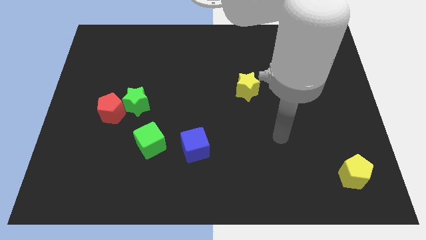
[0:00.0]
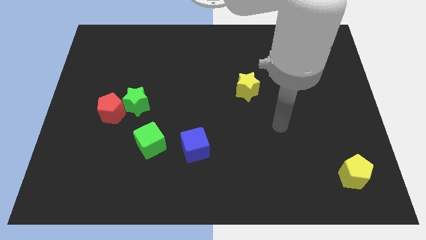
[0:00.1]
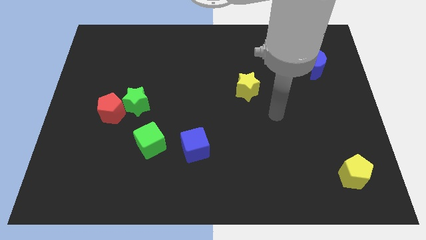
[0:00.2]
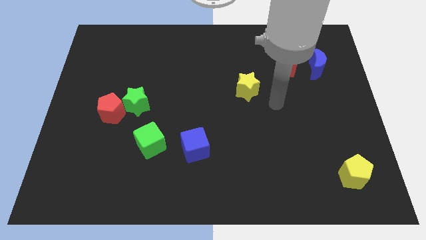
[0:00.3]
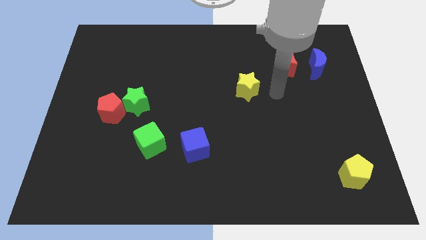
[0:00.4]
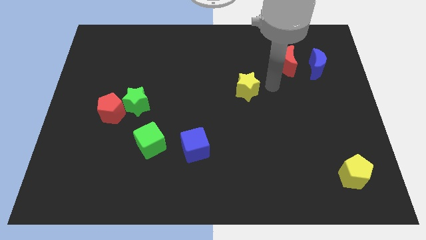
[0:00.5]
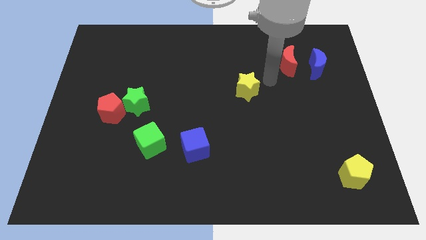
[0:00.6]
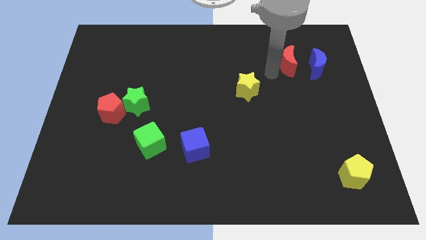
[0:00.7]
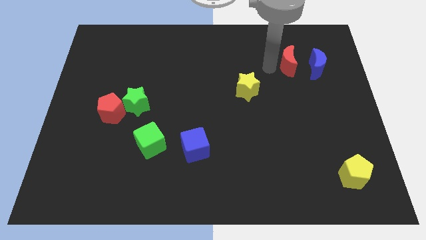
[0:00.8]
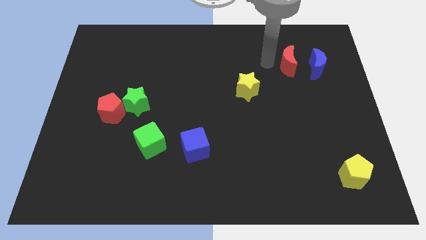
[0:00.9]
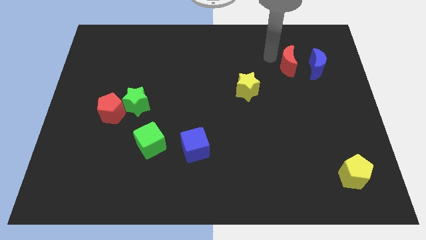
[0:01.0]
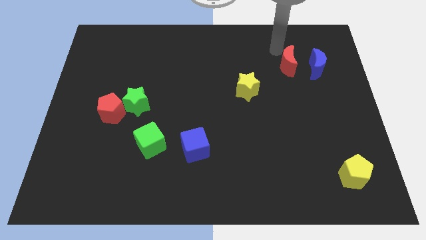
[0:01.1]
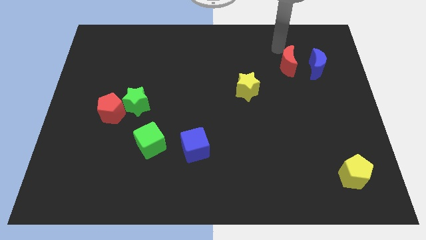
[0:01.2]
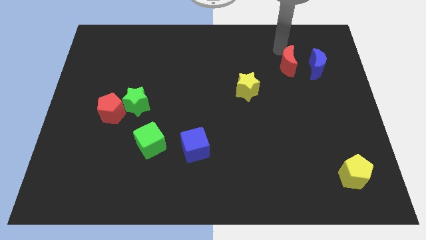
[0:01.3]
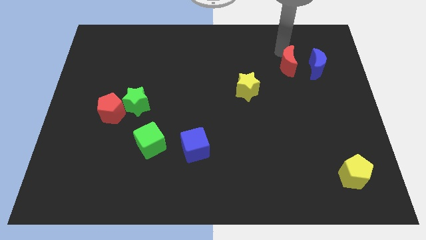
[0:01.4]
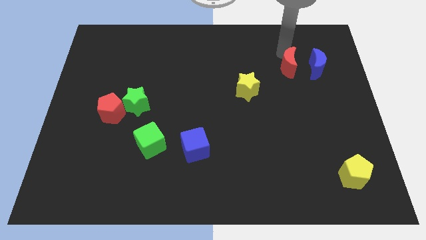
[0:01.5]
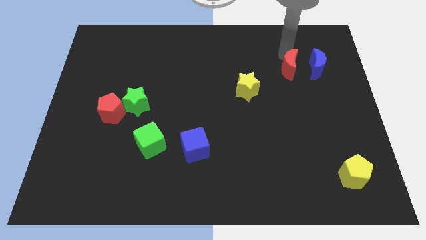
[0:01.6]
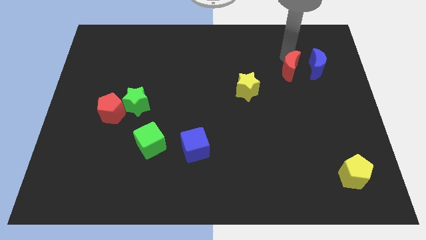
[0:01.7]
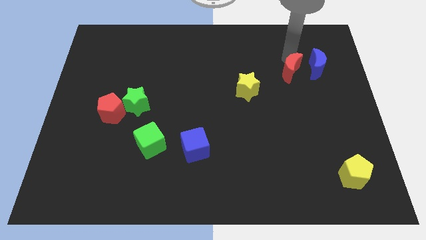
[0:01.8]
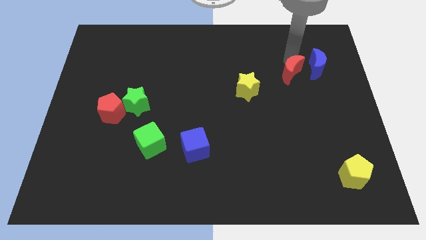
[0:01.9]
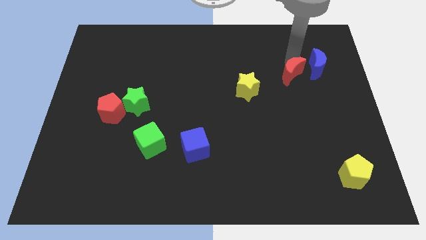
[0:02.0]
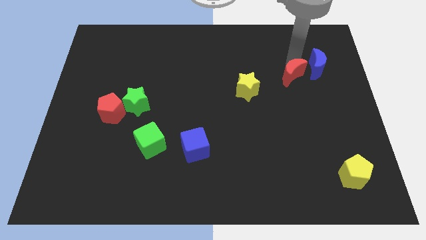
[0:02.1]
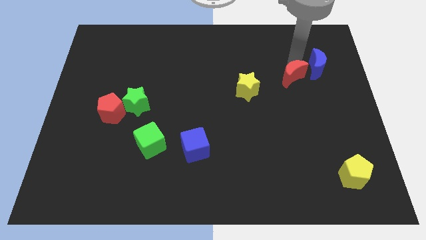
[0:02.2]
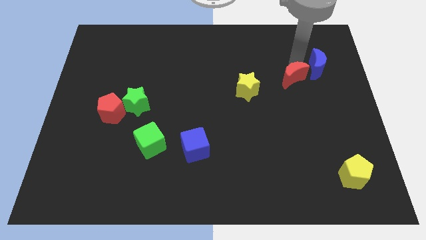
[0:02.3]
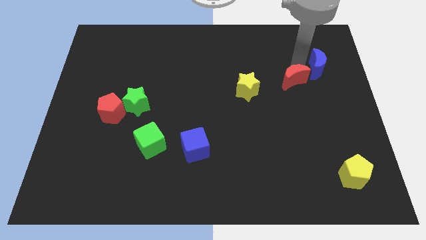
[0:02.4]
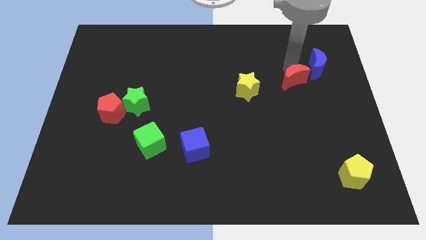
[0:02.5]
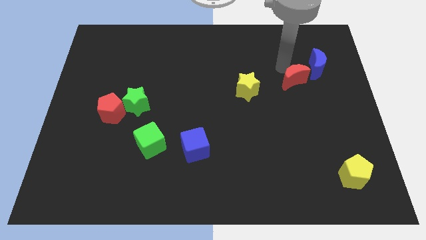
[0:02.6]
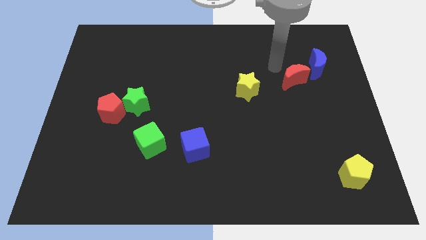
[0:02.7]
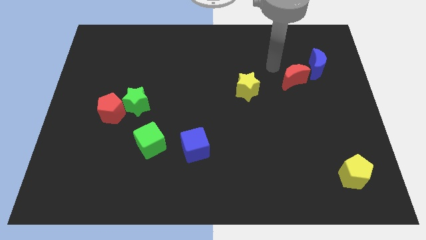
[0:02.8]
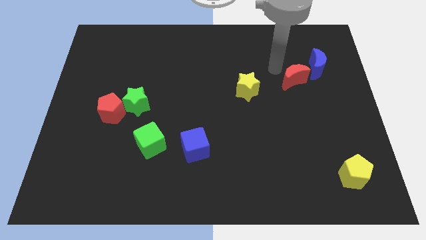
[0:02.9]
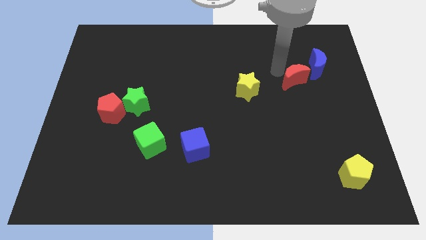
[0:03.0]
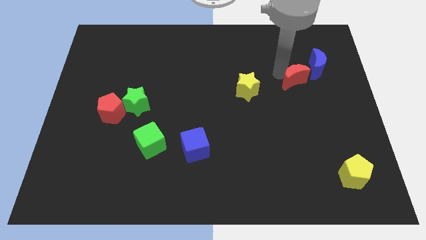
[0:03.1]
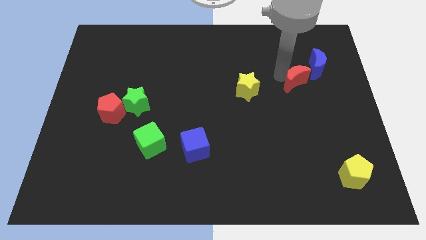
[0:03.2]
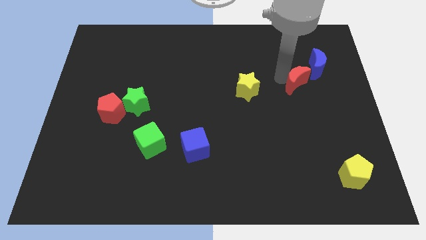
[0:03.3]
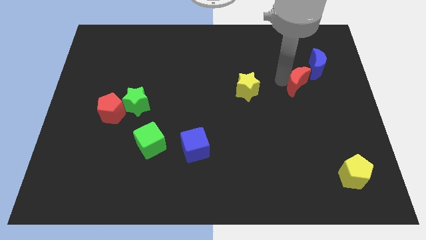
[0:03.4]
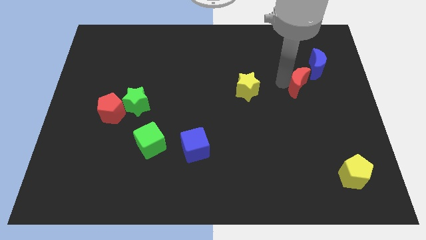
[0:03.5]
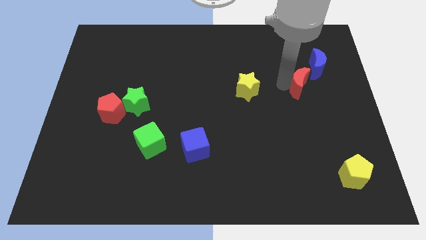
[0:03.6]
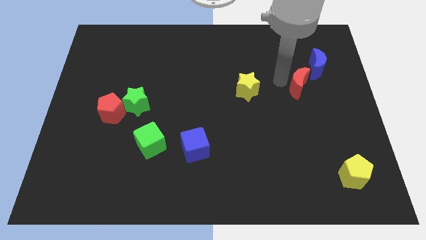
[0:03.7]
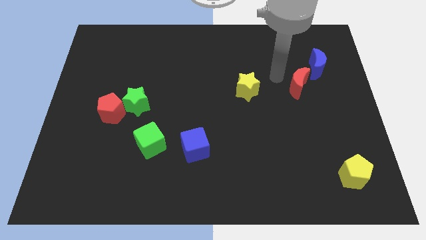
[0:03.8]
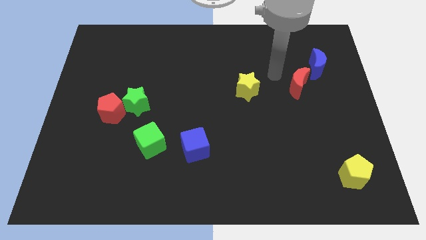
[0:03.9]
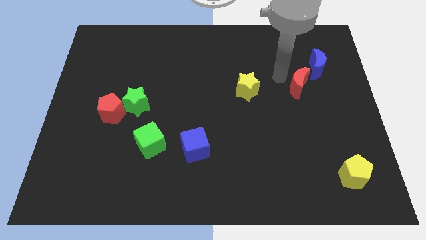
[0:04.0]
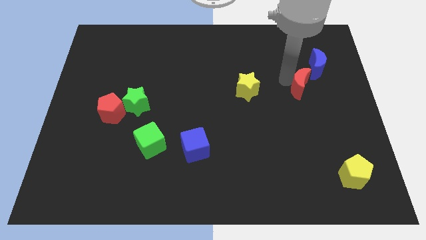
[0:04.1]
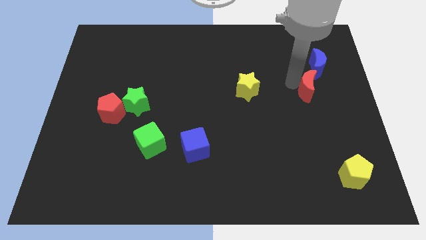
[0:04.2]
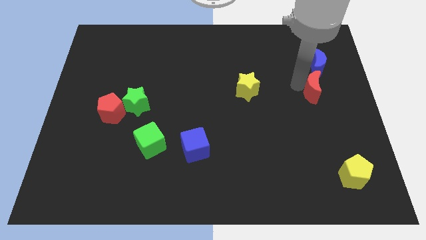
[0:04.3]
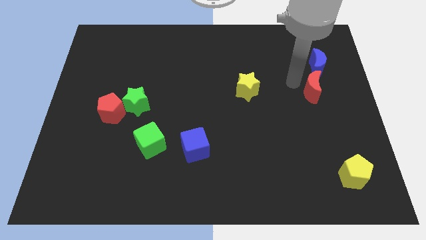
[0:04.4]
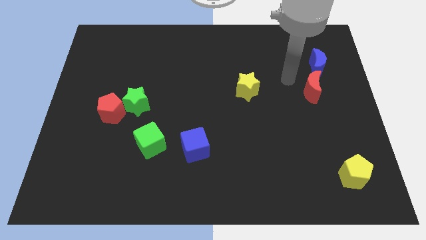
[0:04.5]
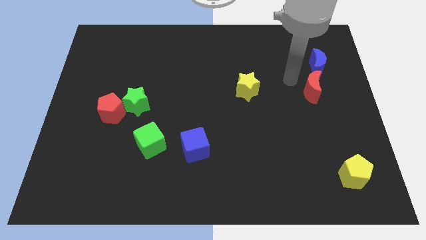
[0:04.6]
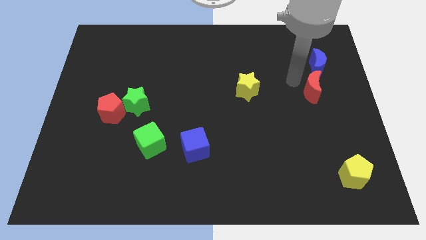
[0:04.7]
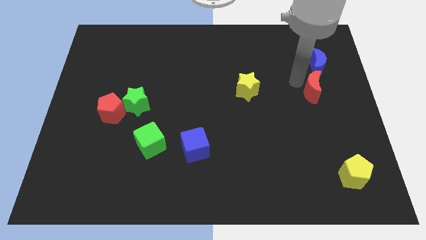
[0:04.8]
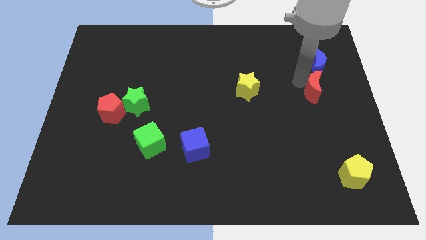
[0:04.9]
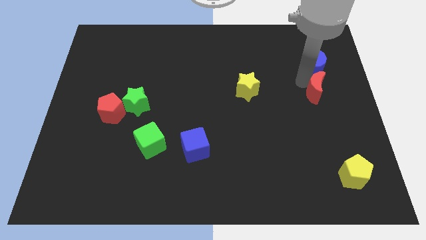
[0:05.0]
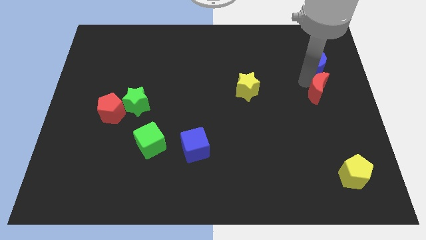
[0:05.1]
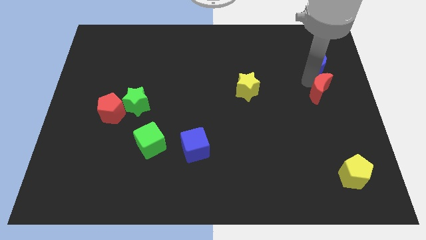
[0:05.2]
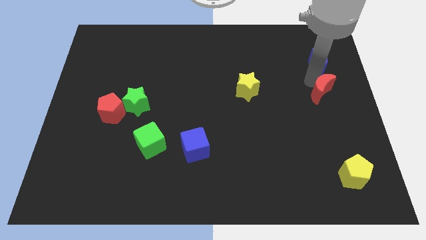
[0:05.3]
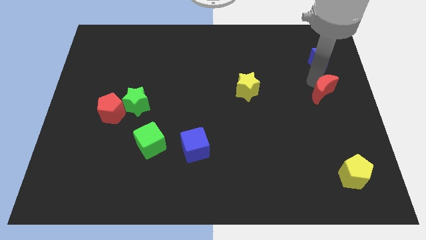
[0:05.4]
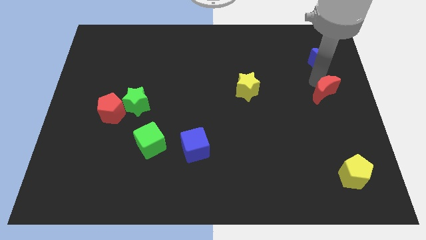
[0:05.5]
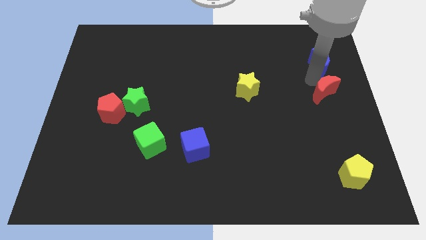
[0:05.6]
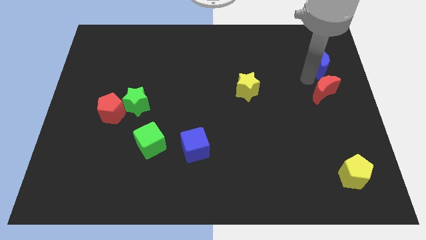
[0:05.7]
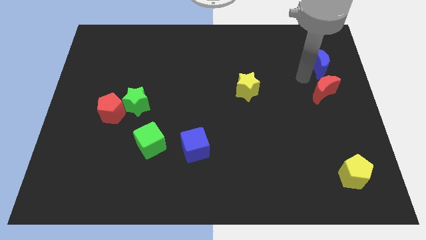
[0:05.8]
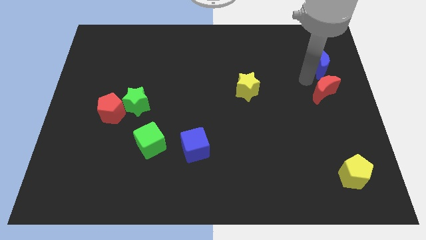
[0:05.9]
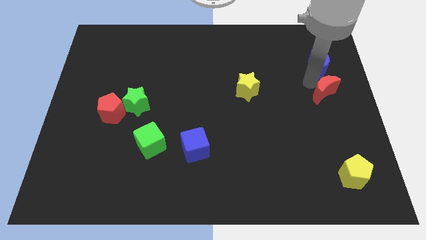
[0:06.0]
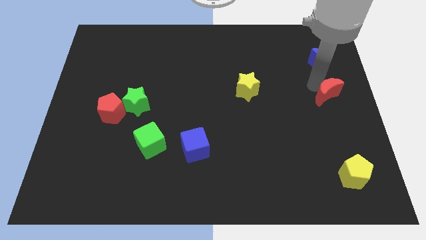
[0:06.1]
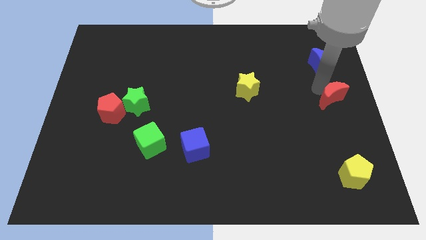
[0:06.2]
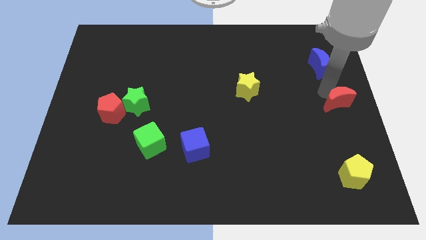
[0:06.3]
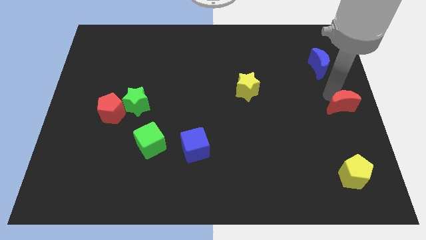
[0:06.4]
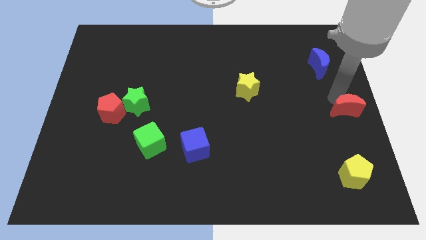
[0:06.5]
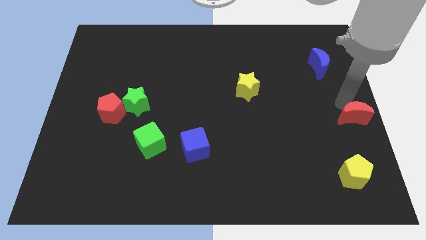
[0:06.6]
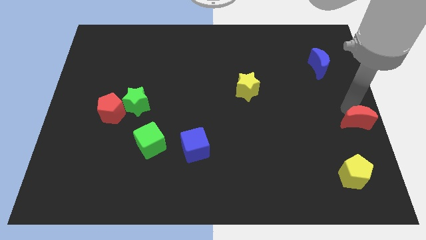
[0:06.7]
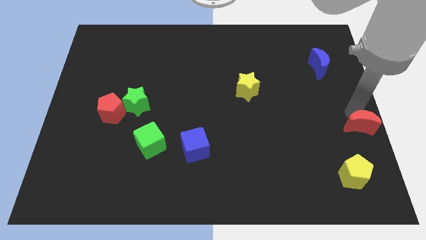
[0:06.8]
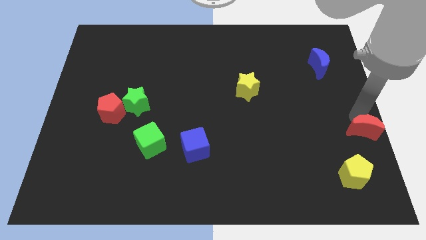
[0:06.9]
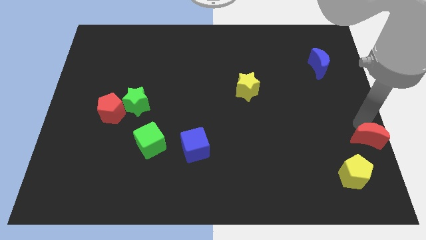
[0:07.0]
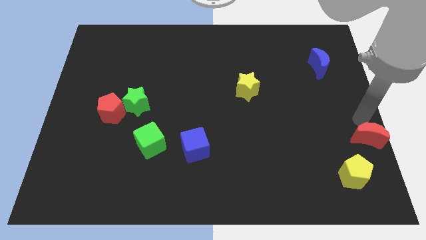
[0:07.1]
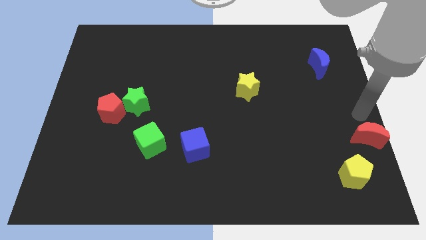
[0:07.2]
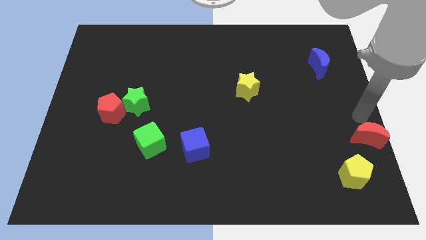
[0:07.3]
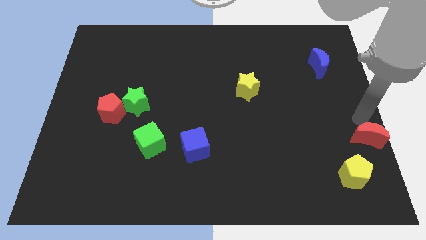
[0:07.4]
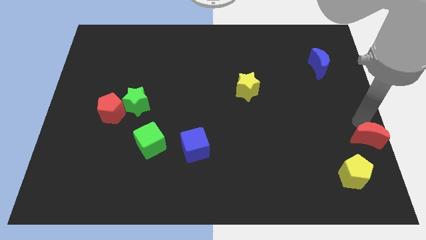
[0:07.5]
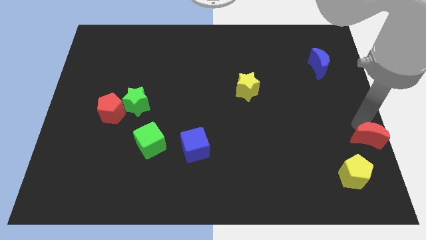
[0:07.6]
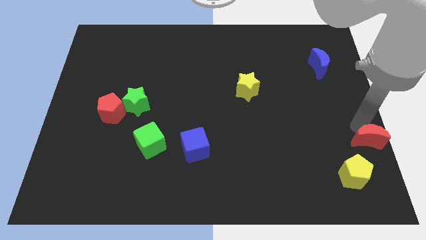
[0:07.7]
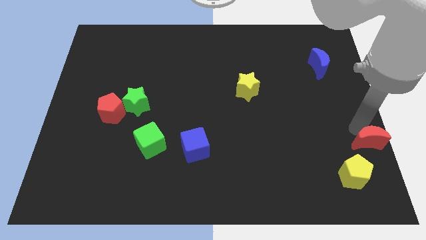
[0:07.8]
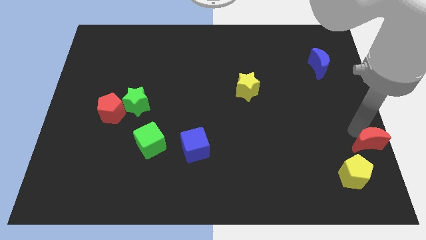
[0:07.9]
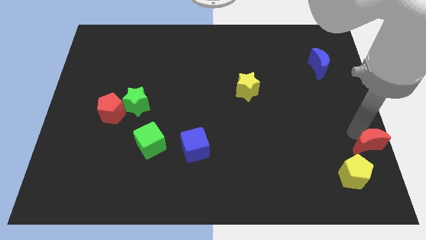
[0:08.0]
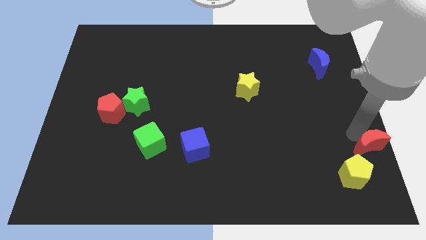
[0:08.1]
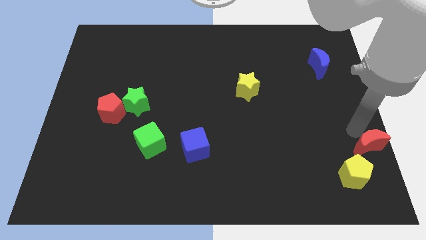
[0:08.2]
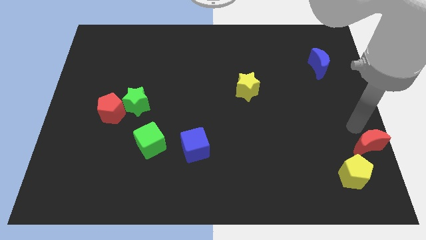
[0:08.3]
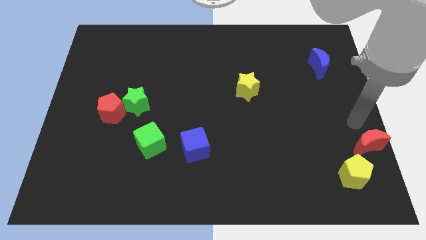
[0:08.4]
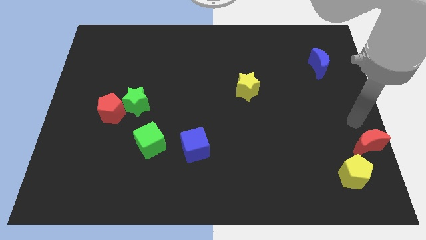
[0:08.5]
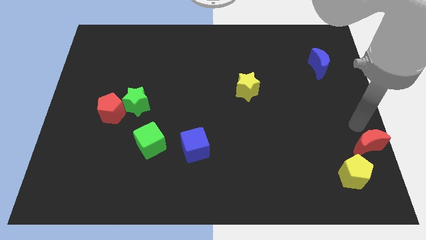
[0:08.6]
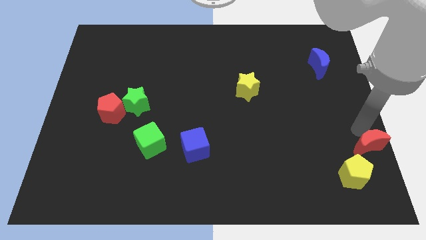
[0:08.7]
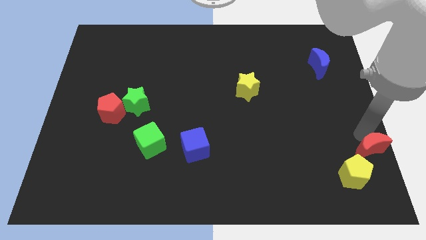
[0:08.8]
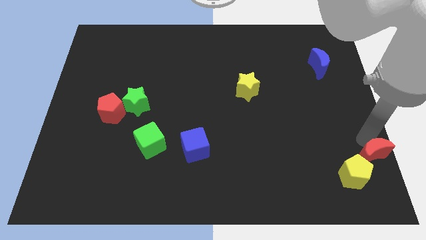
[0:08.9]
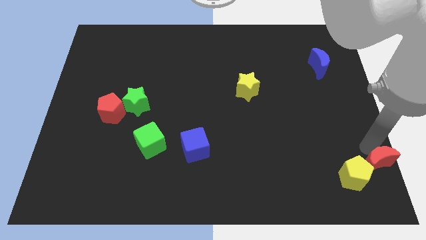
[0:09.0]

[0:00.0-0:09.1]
push the red moon to the lower right corner
